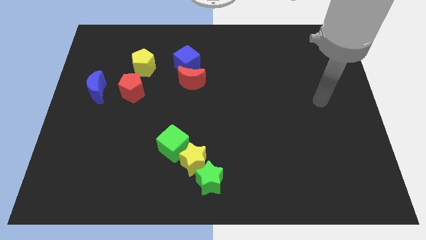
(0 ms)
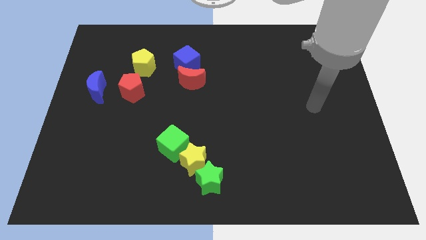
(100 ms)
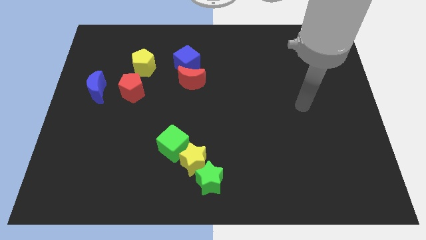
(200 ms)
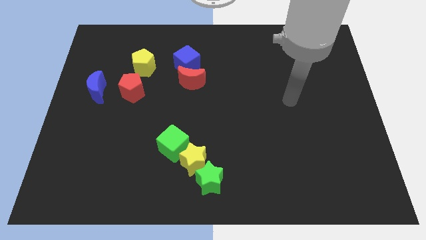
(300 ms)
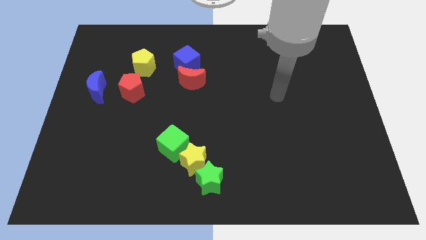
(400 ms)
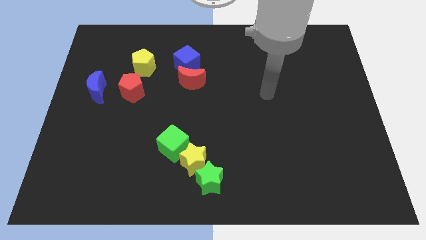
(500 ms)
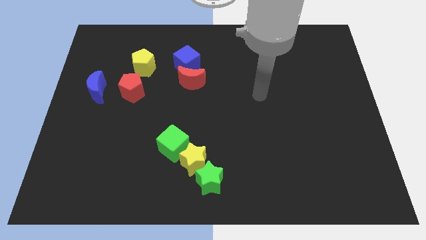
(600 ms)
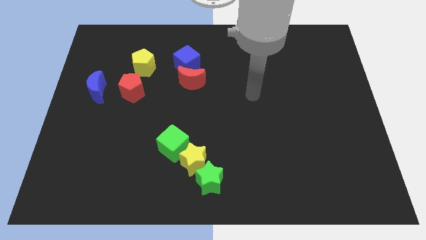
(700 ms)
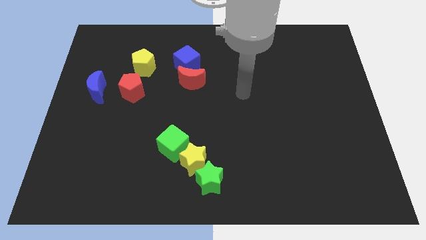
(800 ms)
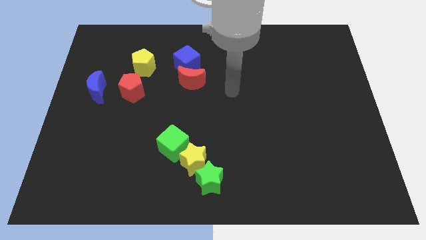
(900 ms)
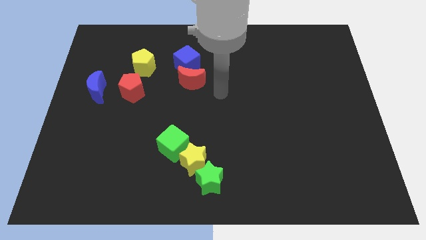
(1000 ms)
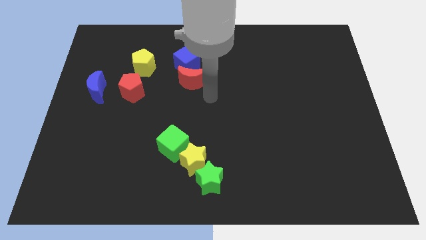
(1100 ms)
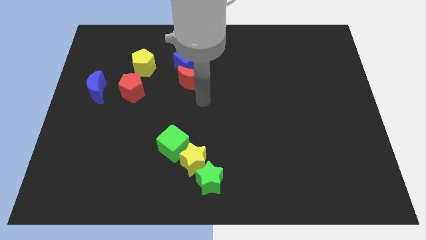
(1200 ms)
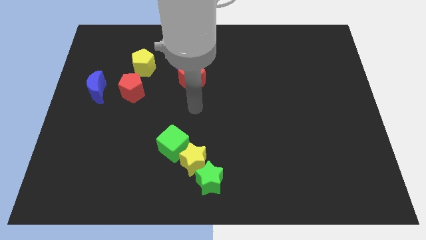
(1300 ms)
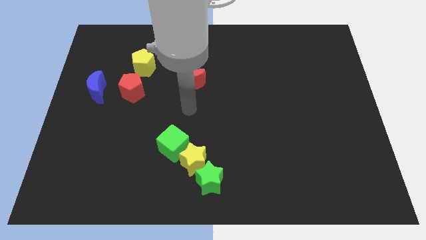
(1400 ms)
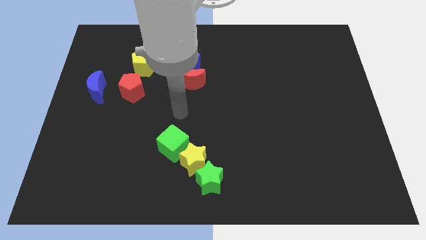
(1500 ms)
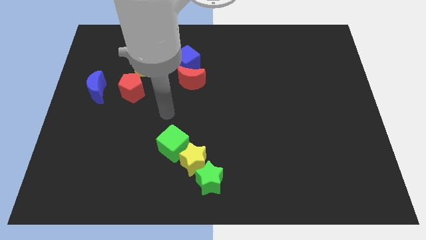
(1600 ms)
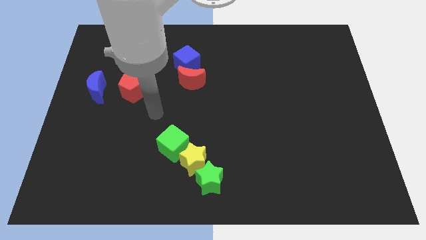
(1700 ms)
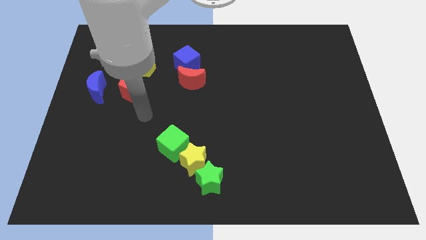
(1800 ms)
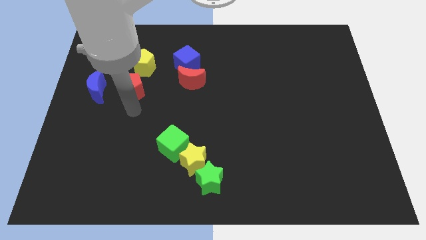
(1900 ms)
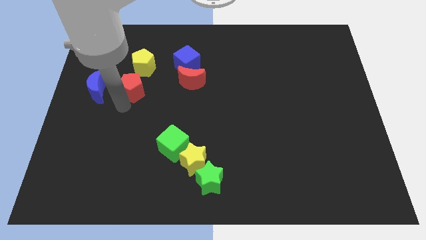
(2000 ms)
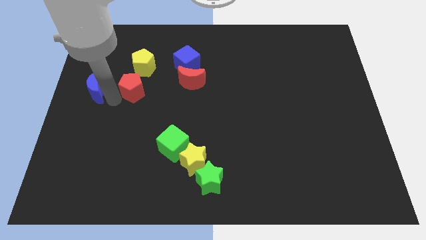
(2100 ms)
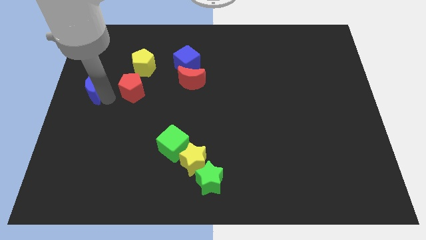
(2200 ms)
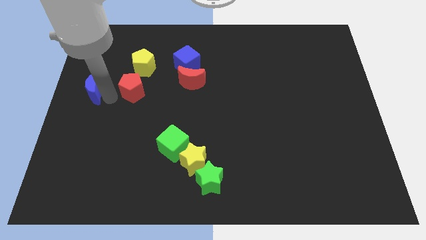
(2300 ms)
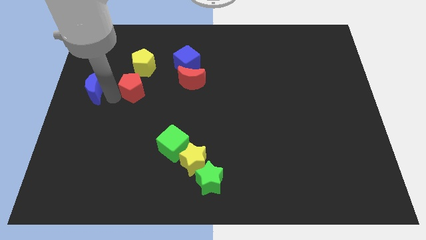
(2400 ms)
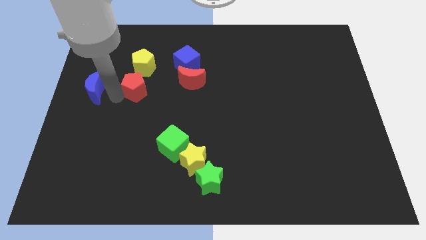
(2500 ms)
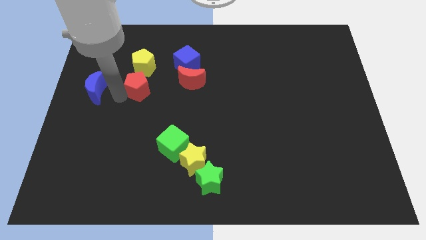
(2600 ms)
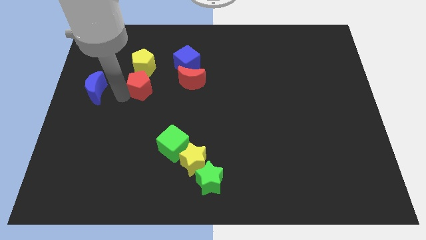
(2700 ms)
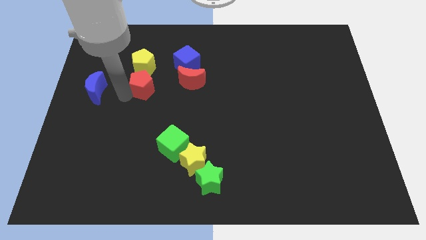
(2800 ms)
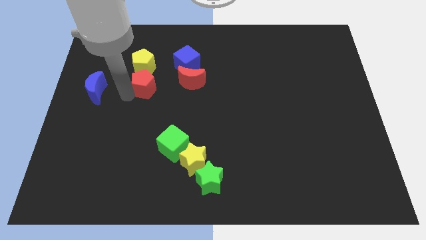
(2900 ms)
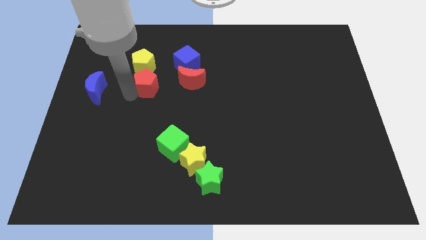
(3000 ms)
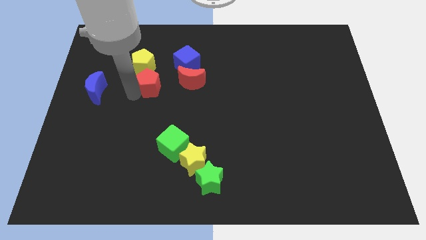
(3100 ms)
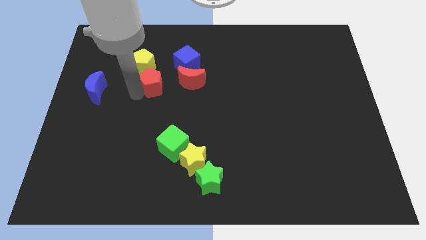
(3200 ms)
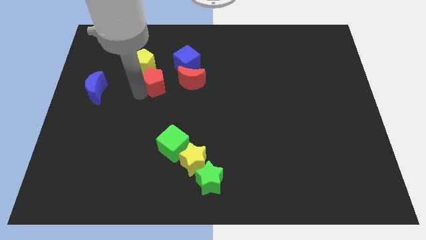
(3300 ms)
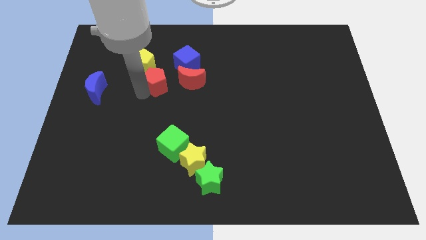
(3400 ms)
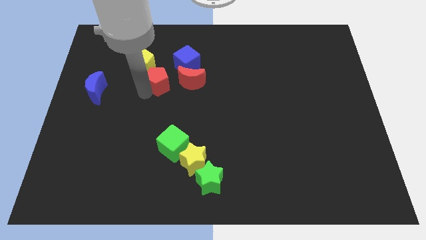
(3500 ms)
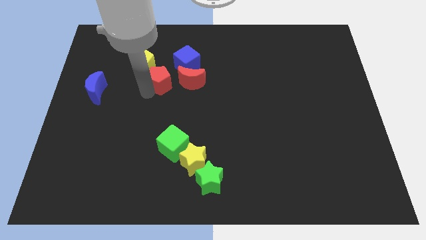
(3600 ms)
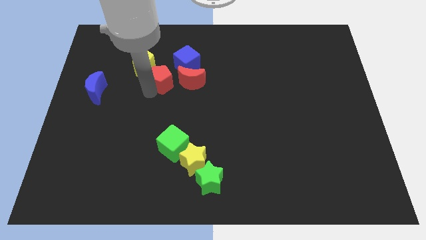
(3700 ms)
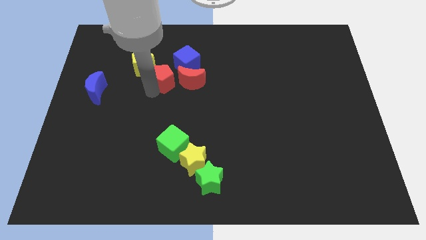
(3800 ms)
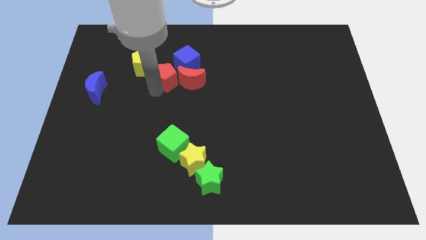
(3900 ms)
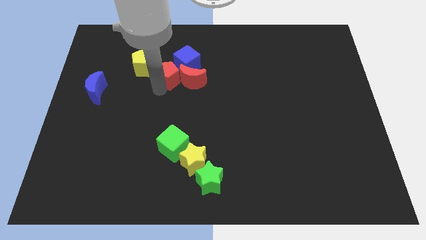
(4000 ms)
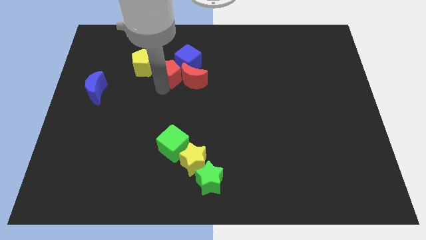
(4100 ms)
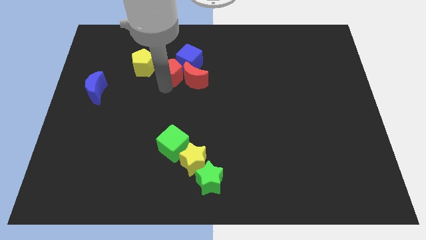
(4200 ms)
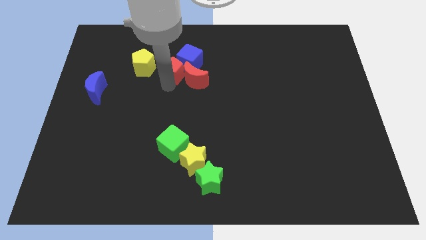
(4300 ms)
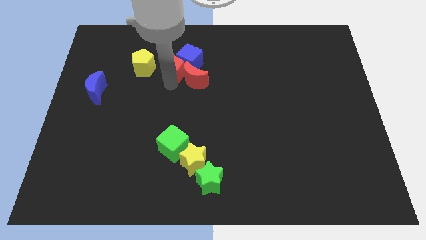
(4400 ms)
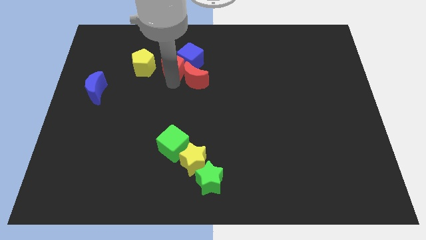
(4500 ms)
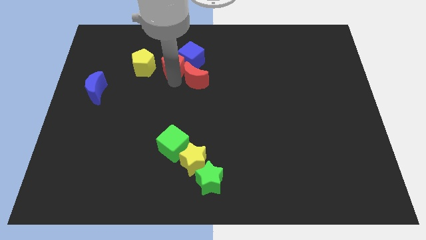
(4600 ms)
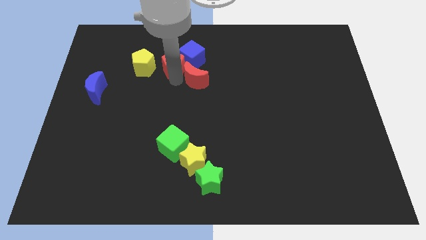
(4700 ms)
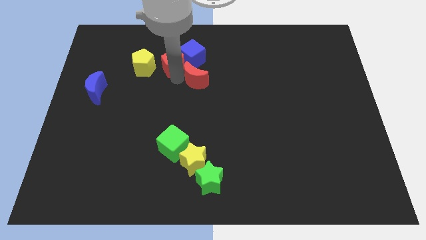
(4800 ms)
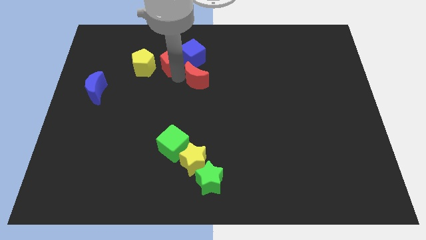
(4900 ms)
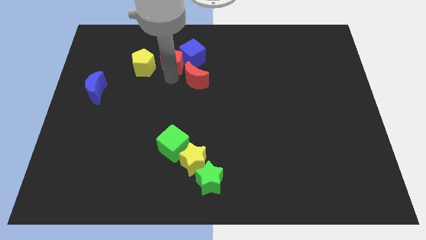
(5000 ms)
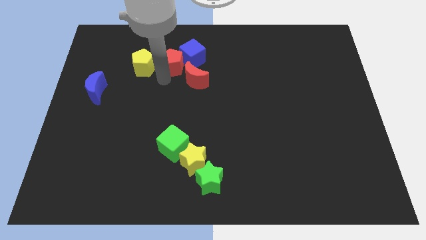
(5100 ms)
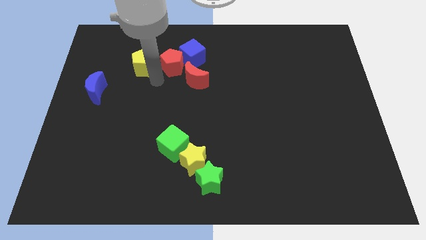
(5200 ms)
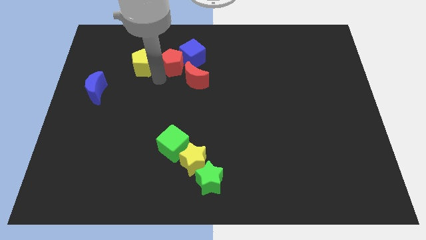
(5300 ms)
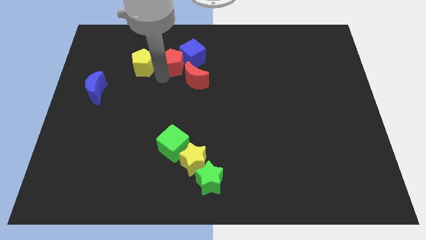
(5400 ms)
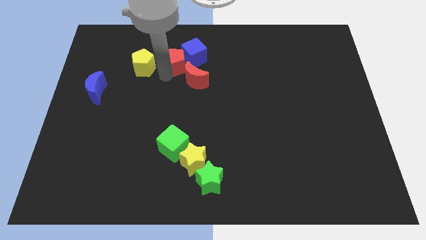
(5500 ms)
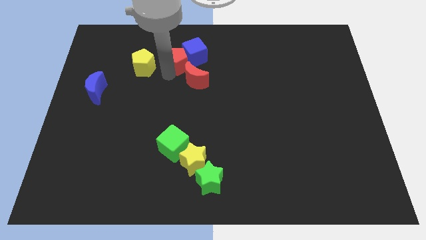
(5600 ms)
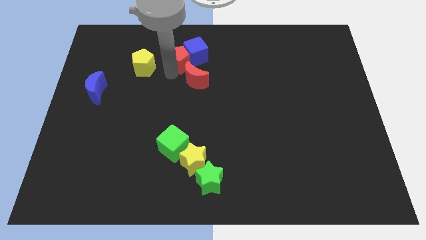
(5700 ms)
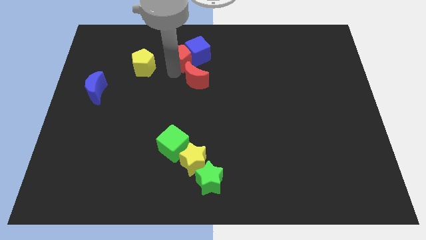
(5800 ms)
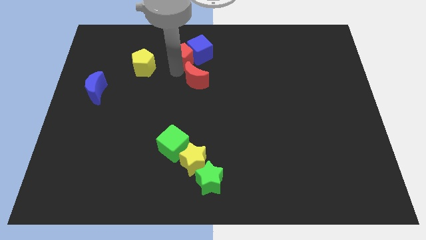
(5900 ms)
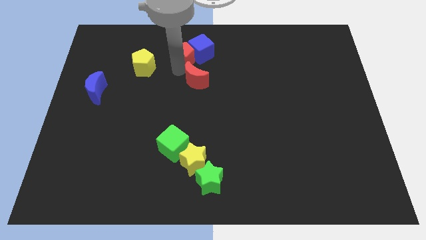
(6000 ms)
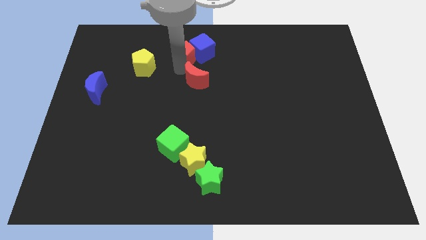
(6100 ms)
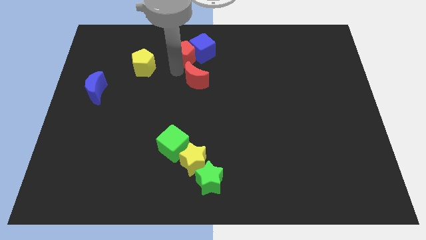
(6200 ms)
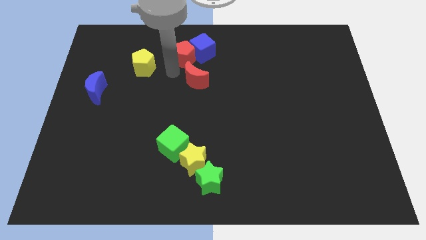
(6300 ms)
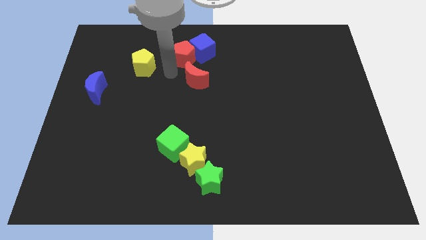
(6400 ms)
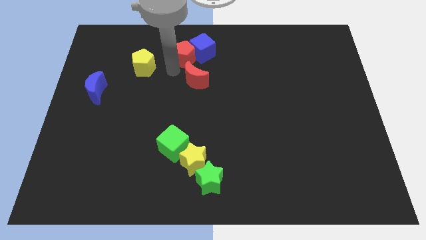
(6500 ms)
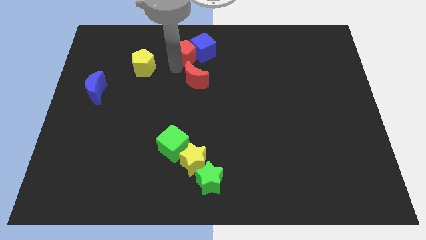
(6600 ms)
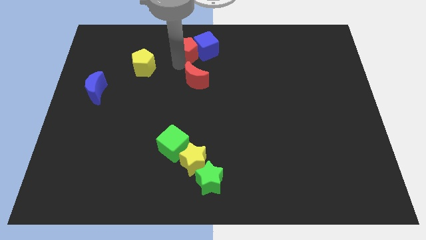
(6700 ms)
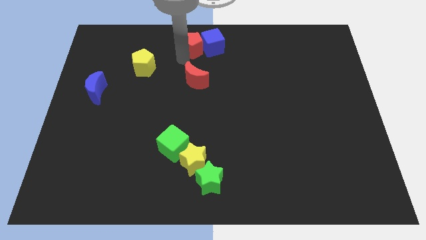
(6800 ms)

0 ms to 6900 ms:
push the red pentagon to the top
